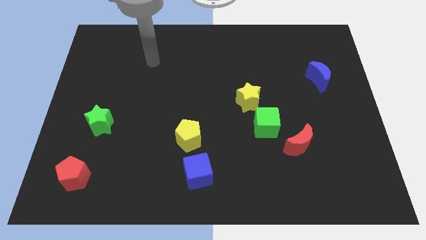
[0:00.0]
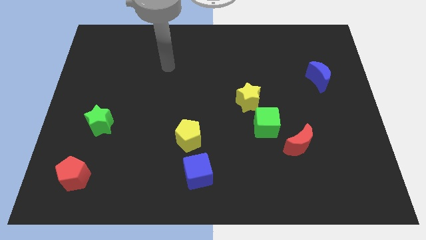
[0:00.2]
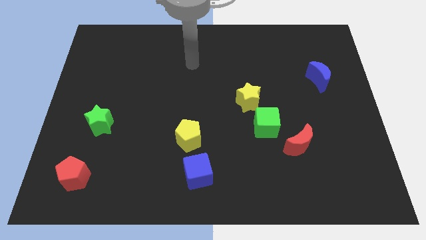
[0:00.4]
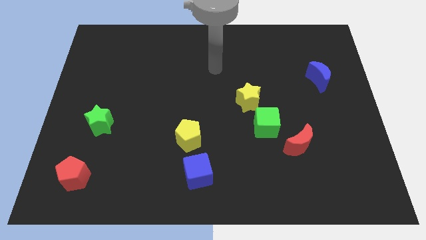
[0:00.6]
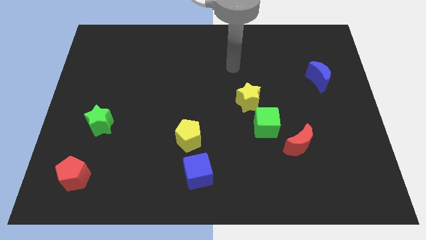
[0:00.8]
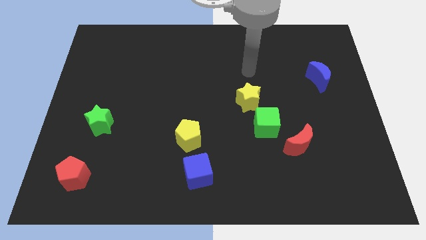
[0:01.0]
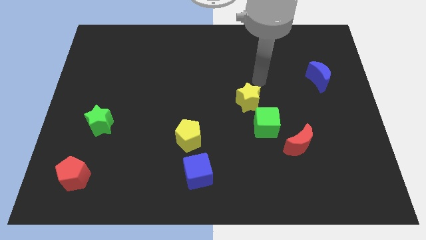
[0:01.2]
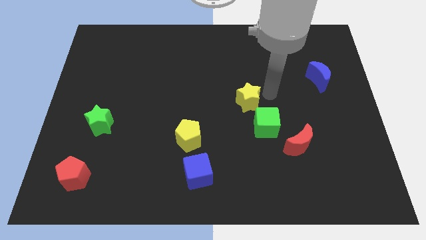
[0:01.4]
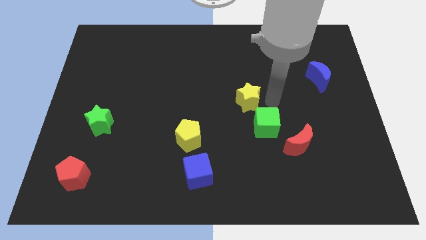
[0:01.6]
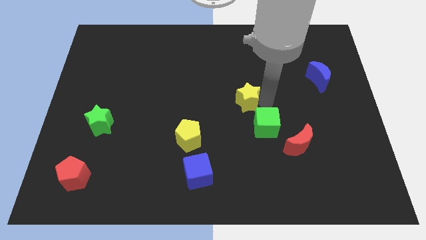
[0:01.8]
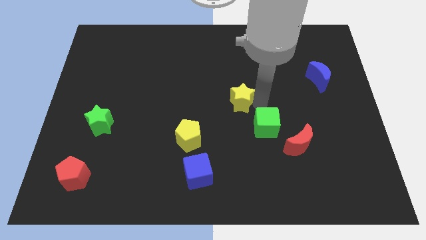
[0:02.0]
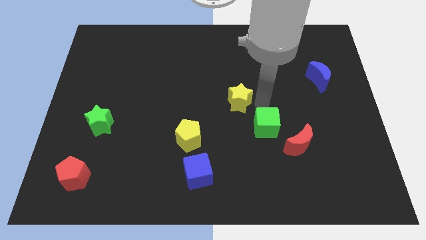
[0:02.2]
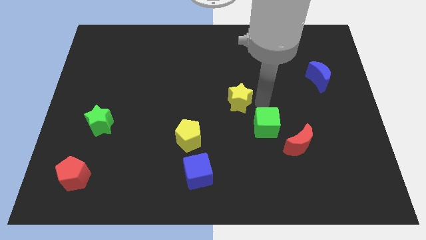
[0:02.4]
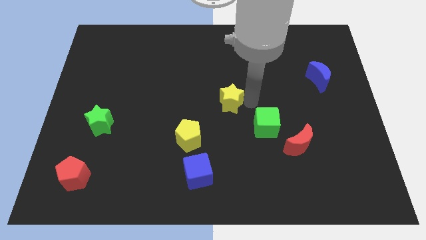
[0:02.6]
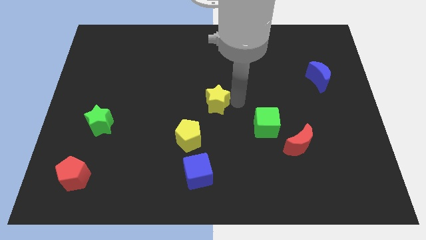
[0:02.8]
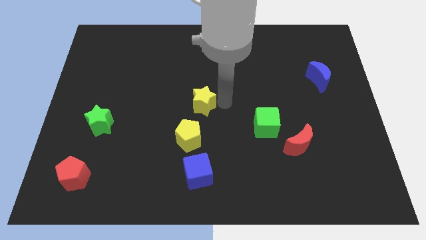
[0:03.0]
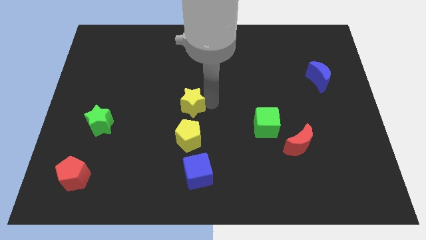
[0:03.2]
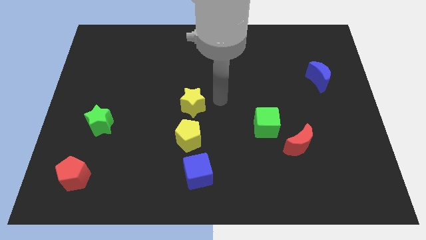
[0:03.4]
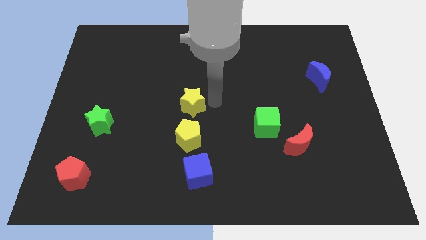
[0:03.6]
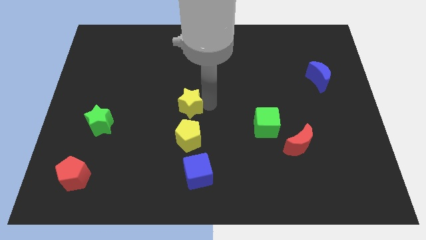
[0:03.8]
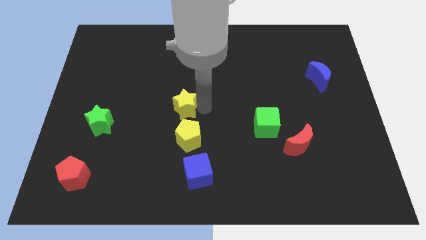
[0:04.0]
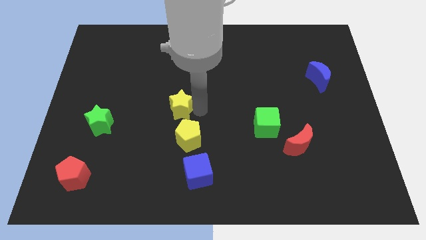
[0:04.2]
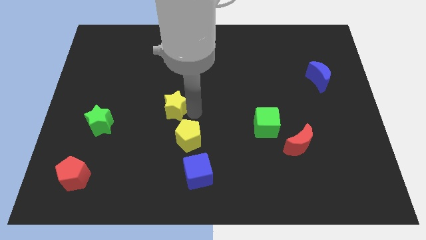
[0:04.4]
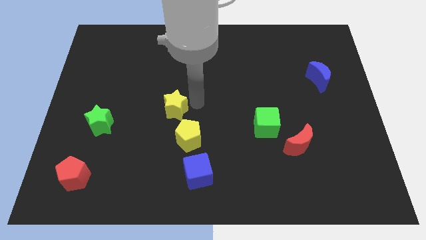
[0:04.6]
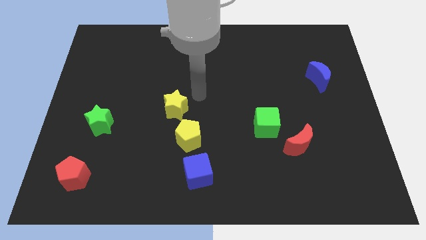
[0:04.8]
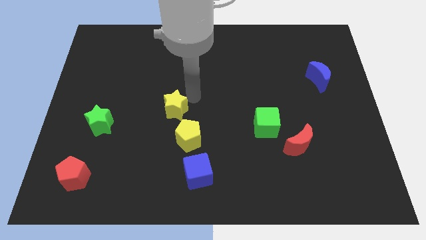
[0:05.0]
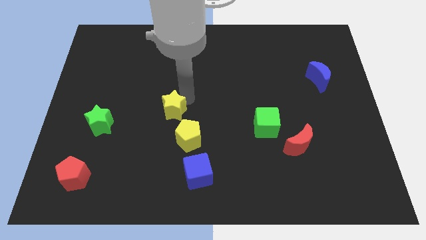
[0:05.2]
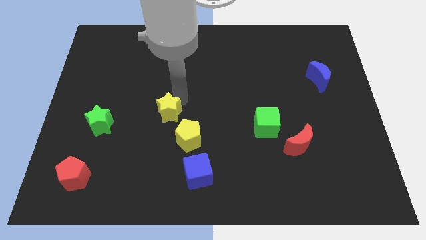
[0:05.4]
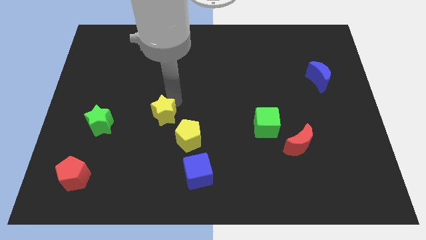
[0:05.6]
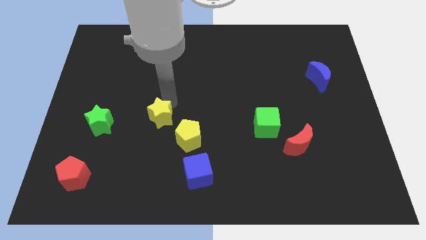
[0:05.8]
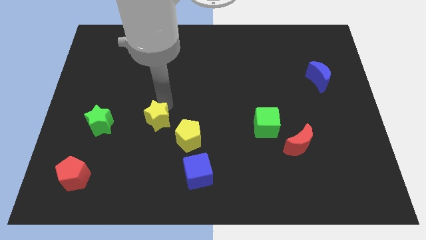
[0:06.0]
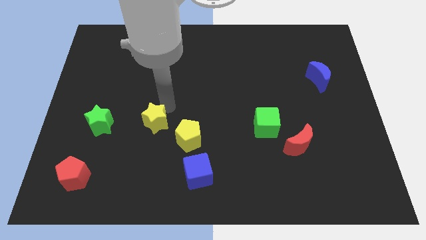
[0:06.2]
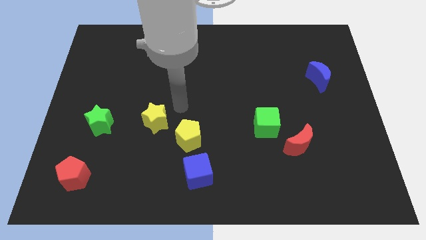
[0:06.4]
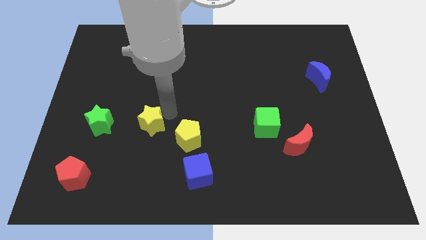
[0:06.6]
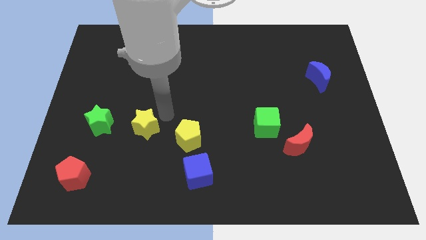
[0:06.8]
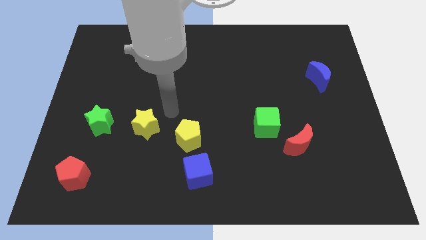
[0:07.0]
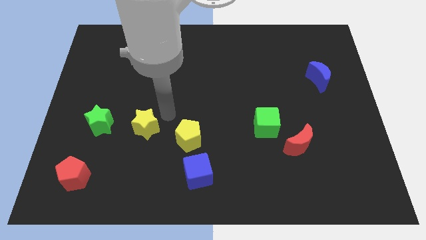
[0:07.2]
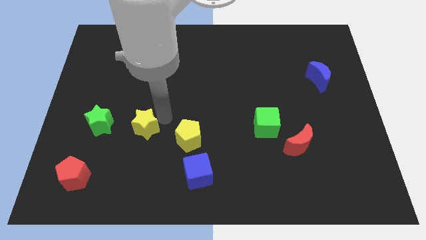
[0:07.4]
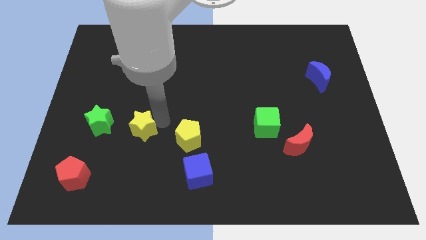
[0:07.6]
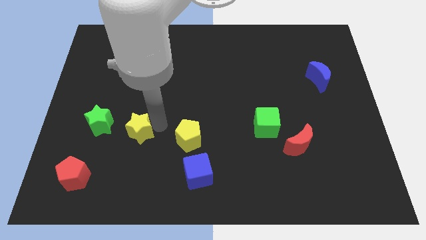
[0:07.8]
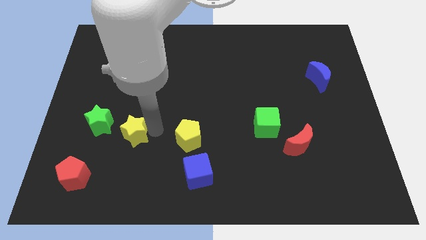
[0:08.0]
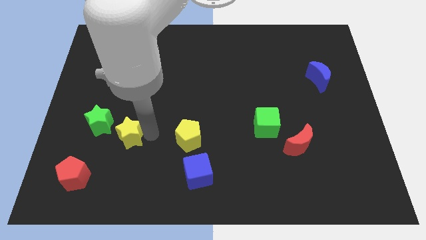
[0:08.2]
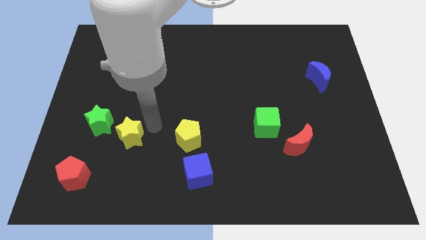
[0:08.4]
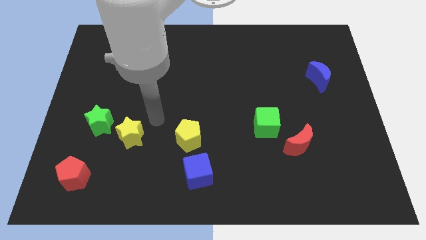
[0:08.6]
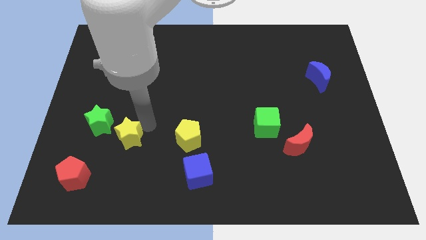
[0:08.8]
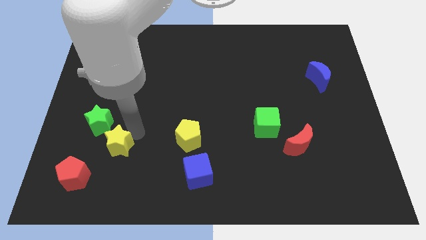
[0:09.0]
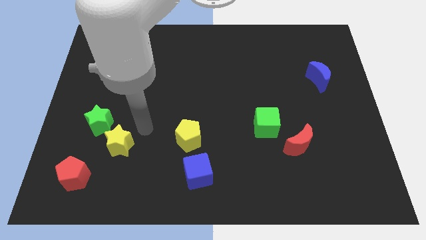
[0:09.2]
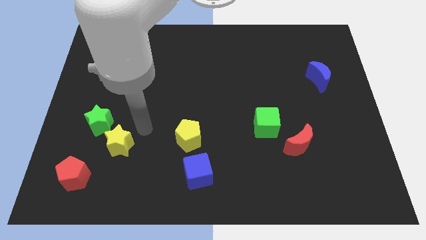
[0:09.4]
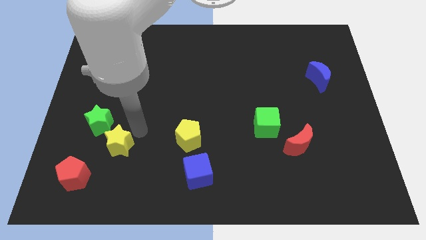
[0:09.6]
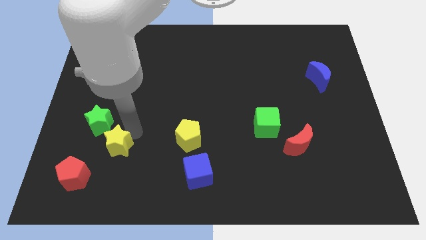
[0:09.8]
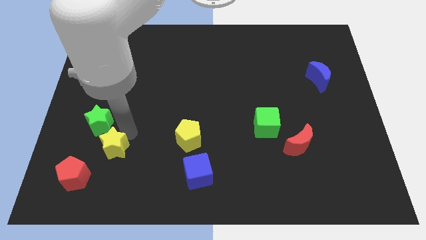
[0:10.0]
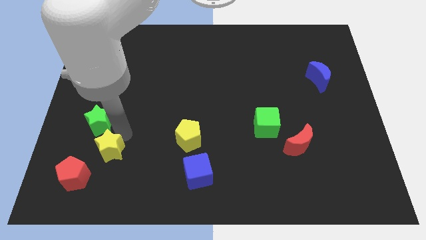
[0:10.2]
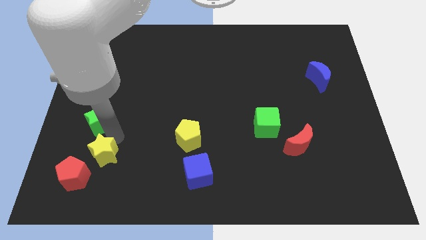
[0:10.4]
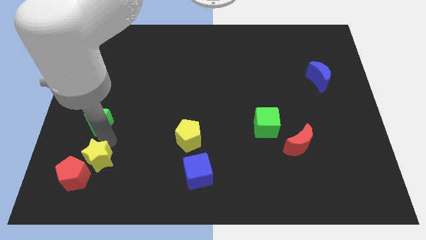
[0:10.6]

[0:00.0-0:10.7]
move the yellow star towards the red pentagon

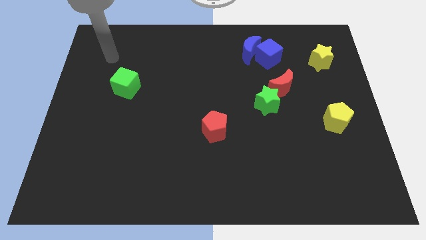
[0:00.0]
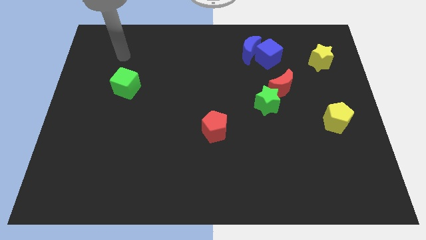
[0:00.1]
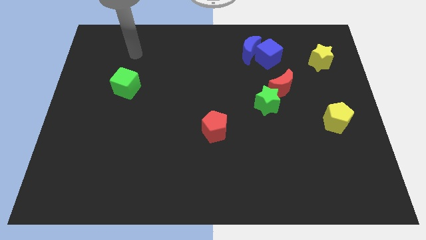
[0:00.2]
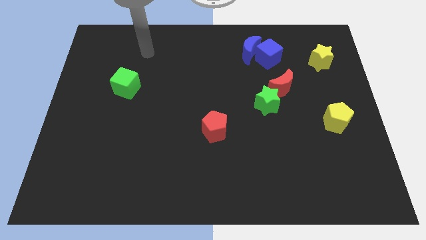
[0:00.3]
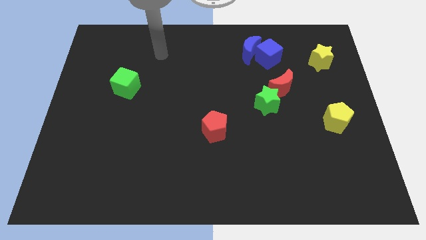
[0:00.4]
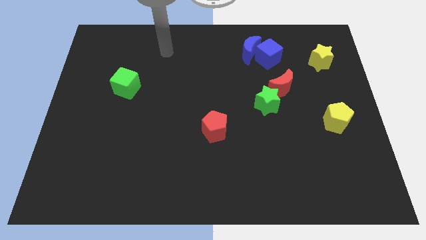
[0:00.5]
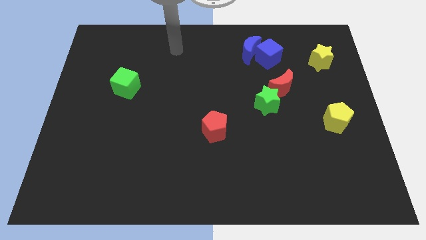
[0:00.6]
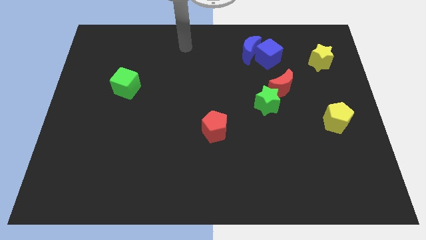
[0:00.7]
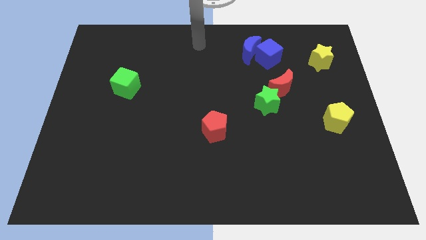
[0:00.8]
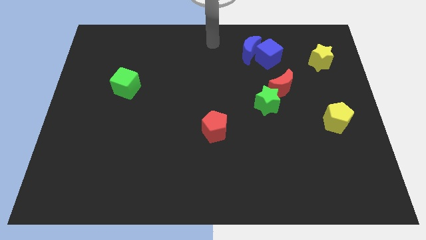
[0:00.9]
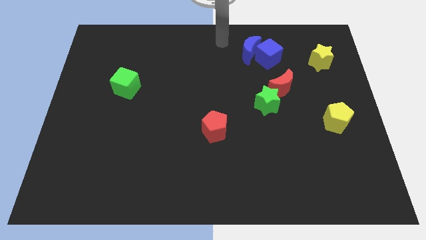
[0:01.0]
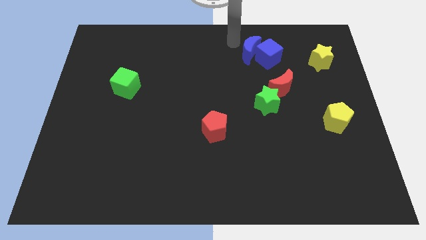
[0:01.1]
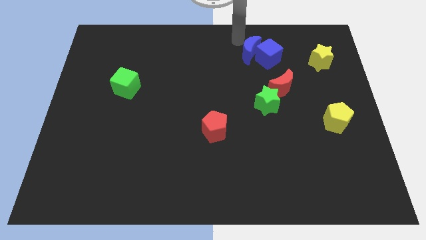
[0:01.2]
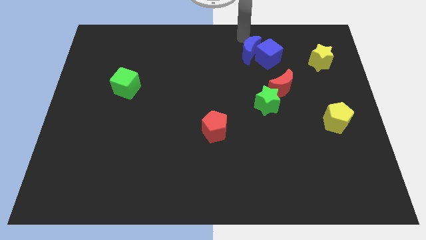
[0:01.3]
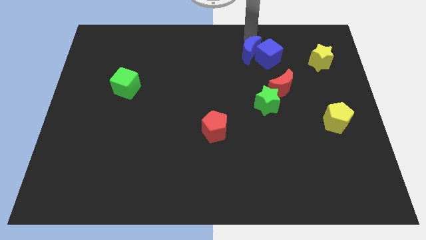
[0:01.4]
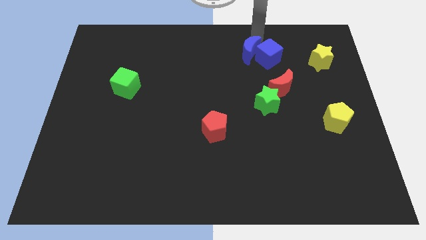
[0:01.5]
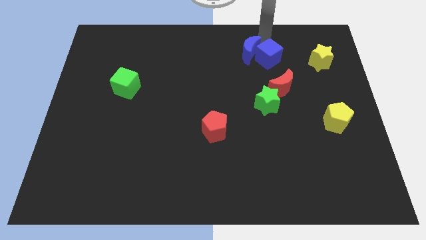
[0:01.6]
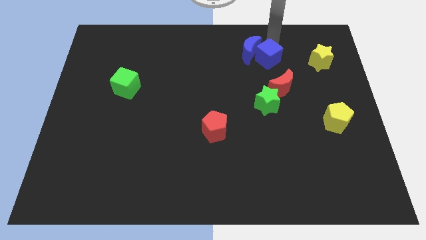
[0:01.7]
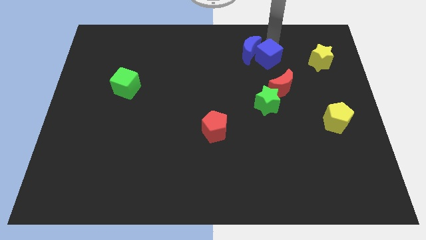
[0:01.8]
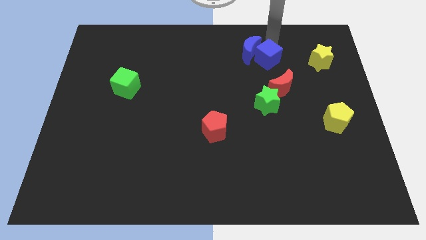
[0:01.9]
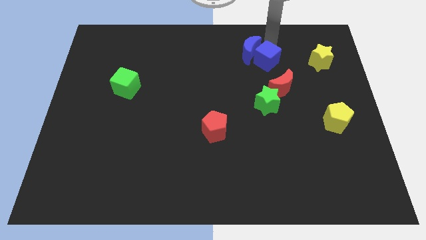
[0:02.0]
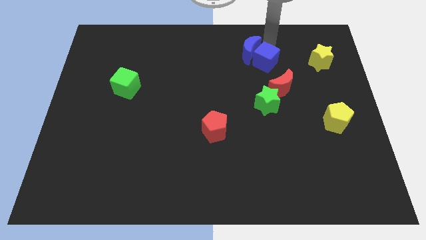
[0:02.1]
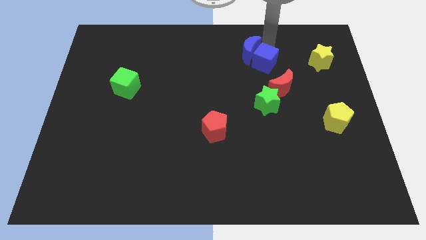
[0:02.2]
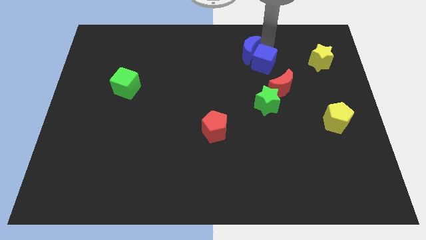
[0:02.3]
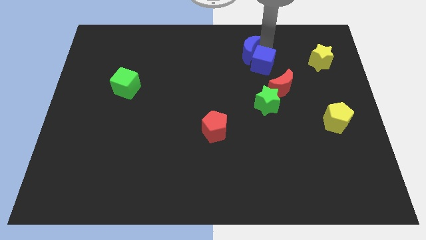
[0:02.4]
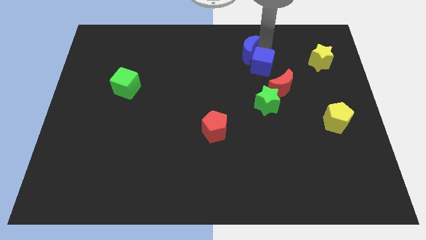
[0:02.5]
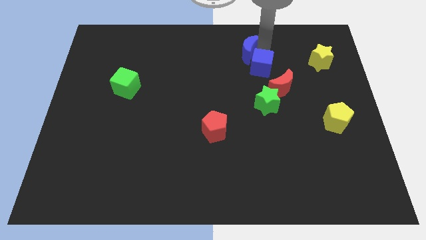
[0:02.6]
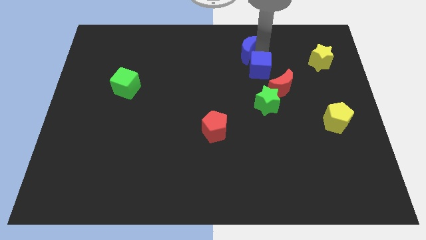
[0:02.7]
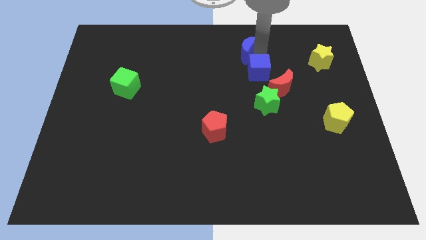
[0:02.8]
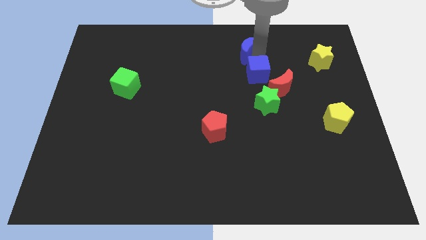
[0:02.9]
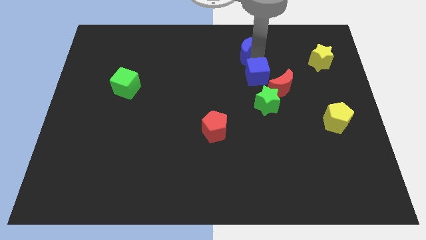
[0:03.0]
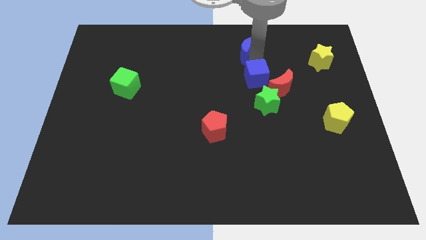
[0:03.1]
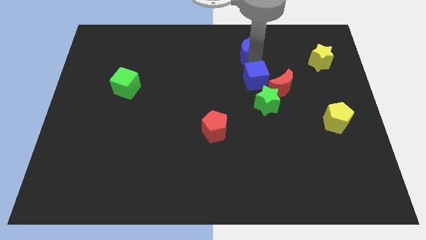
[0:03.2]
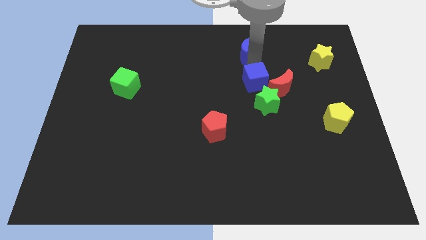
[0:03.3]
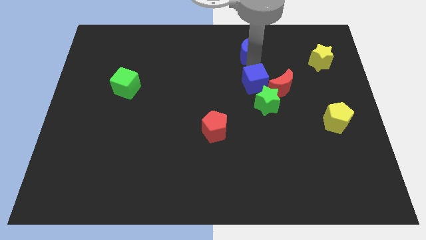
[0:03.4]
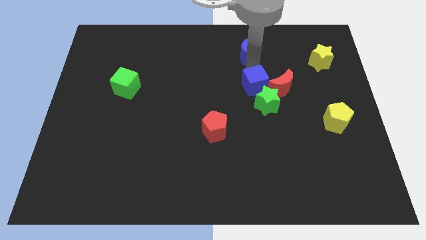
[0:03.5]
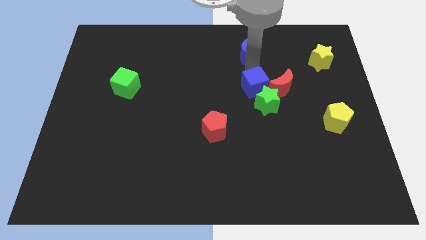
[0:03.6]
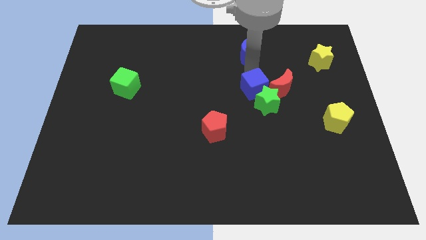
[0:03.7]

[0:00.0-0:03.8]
move the blue cube next to the green star
